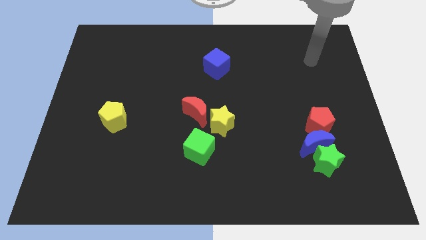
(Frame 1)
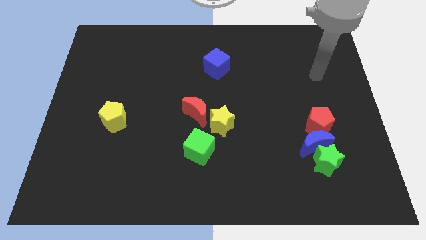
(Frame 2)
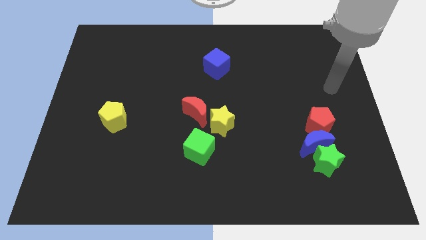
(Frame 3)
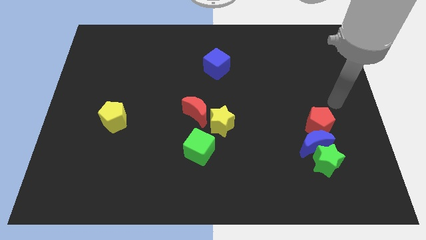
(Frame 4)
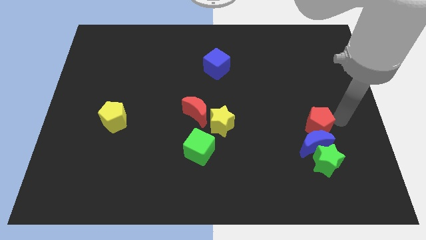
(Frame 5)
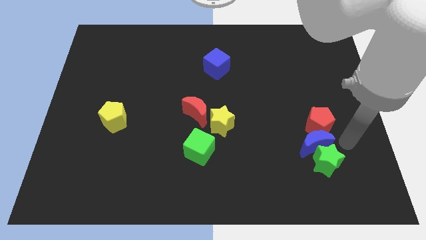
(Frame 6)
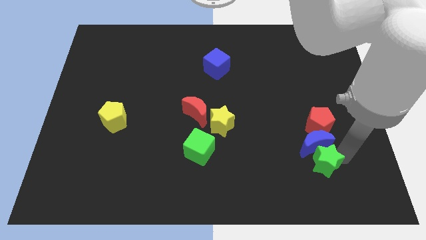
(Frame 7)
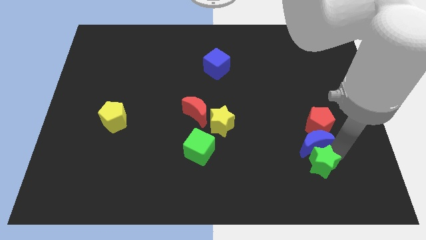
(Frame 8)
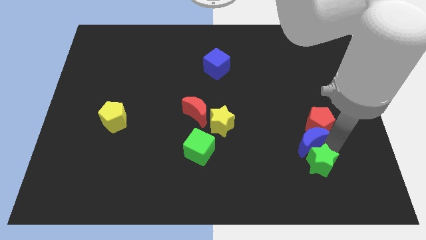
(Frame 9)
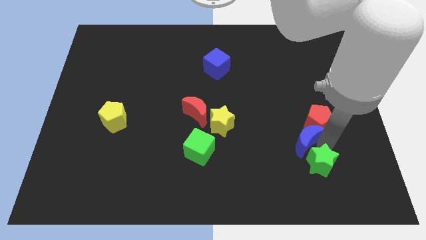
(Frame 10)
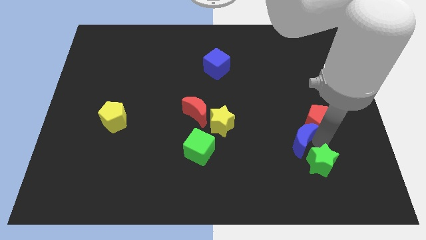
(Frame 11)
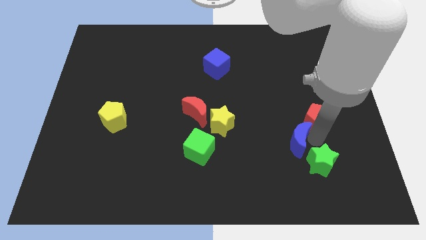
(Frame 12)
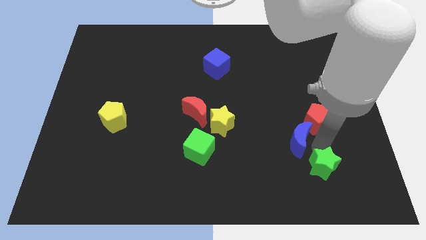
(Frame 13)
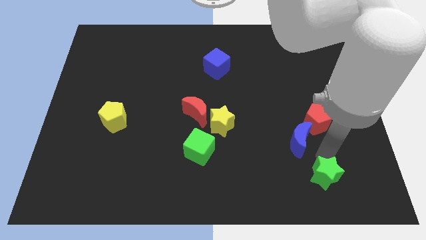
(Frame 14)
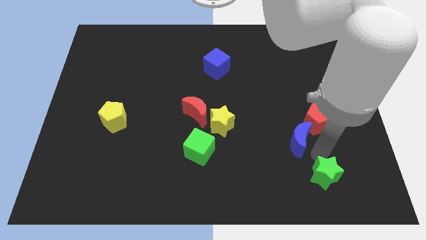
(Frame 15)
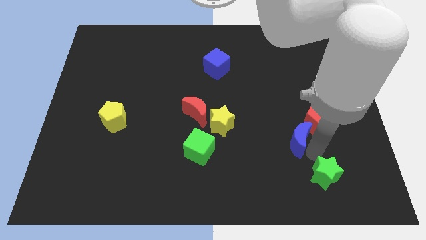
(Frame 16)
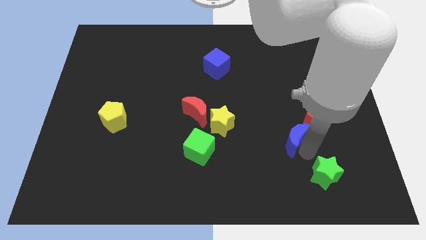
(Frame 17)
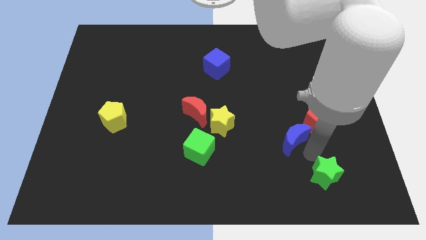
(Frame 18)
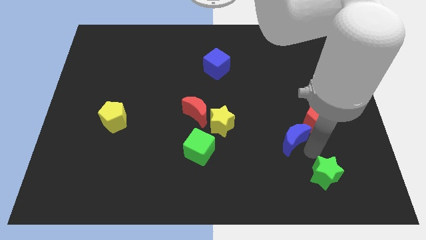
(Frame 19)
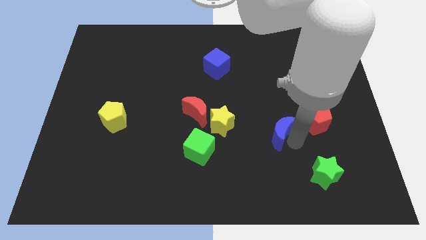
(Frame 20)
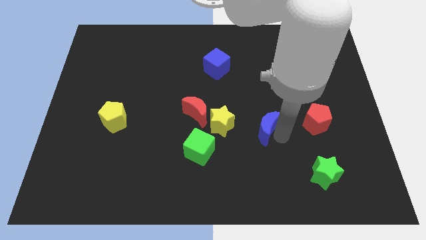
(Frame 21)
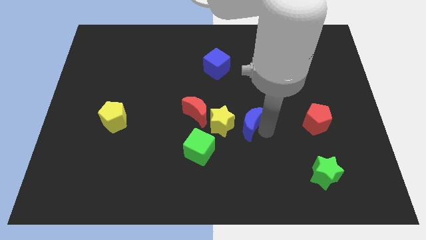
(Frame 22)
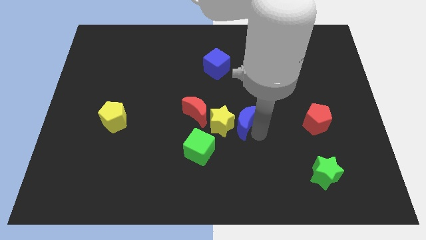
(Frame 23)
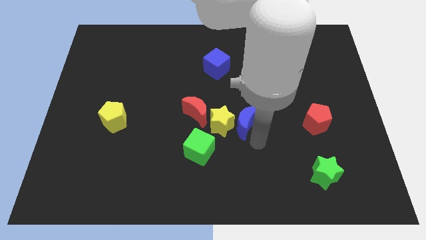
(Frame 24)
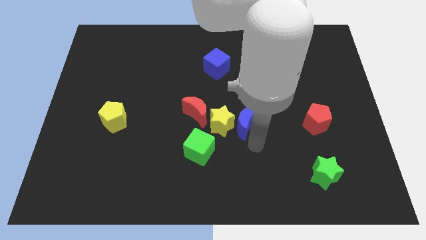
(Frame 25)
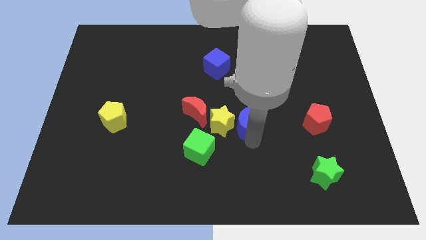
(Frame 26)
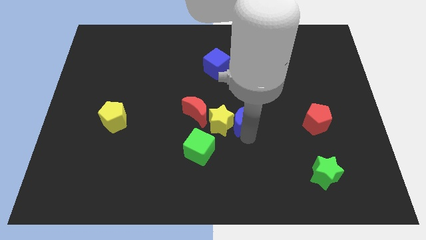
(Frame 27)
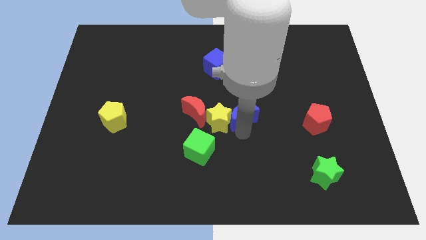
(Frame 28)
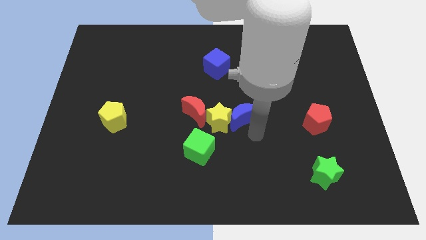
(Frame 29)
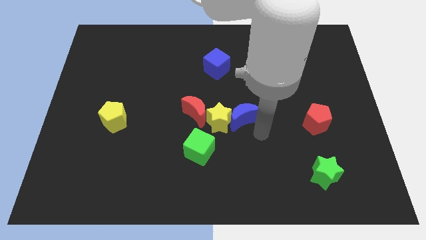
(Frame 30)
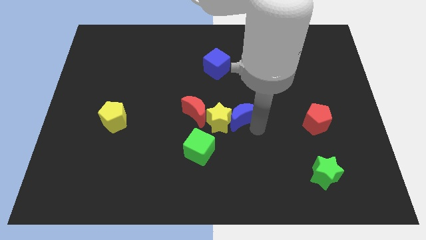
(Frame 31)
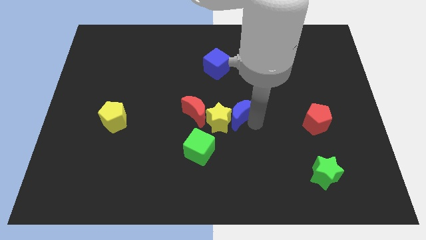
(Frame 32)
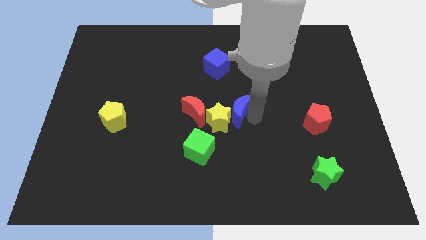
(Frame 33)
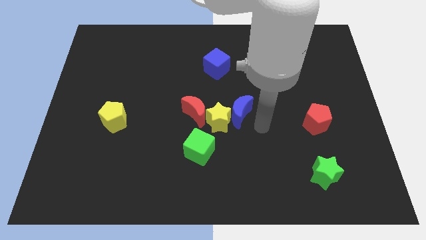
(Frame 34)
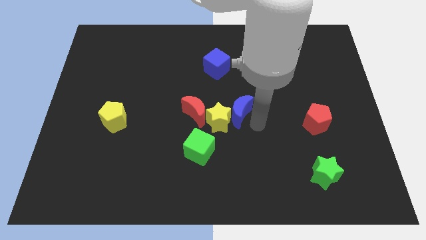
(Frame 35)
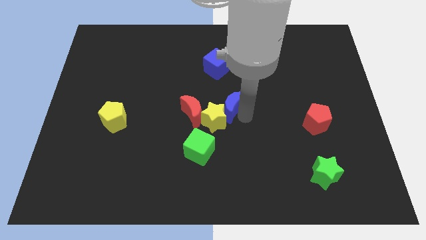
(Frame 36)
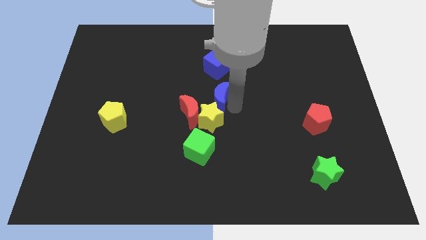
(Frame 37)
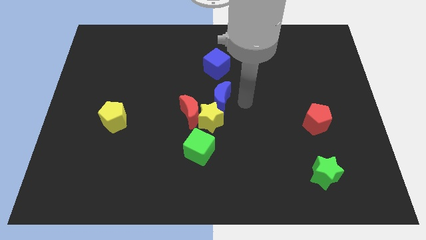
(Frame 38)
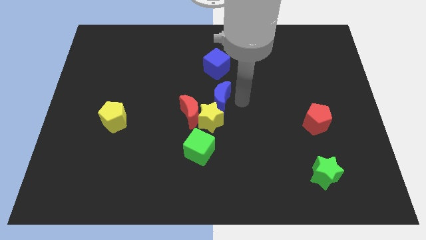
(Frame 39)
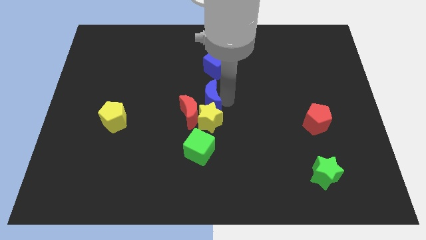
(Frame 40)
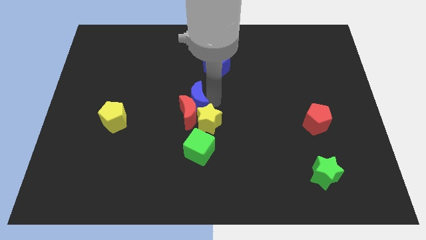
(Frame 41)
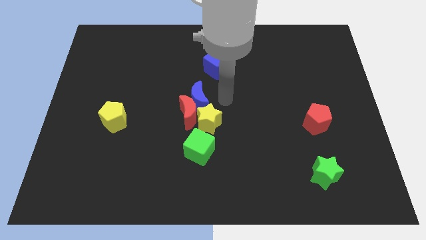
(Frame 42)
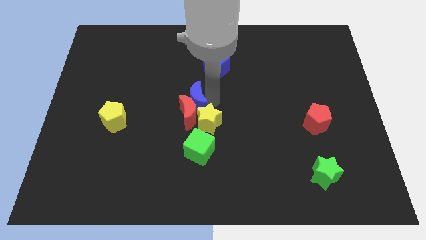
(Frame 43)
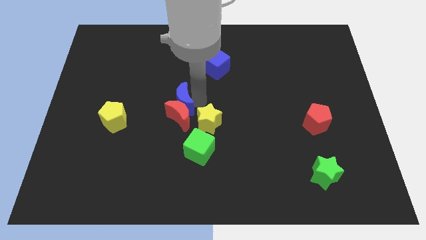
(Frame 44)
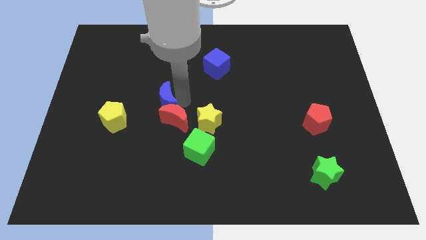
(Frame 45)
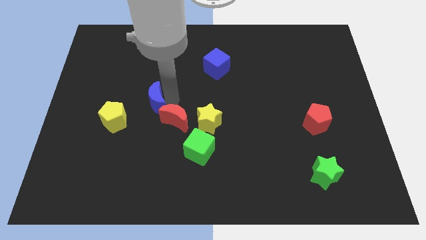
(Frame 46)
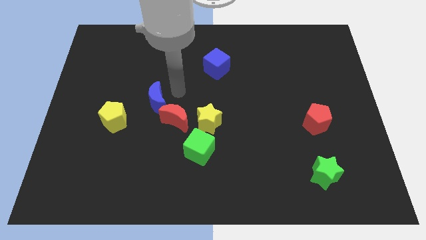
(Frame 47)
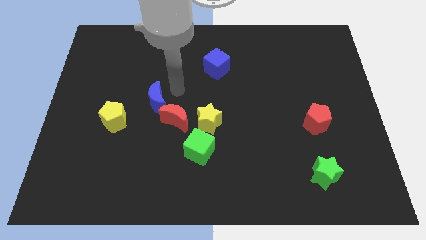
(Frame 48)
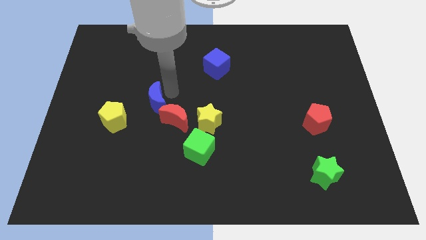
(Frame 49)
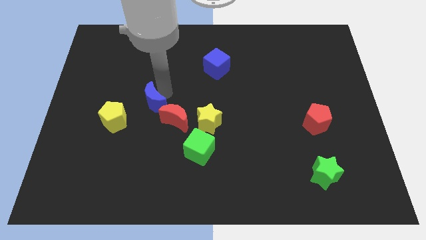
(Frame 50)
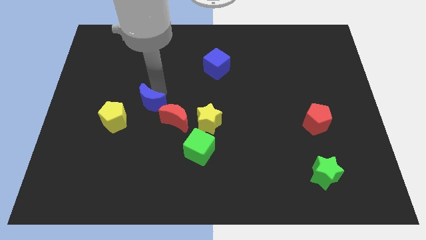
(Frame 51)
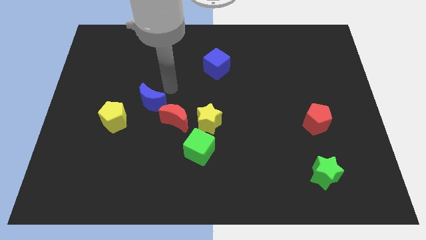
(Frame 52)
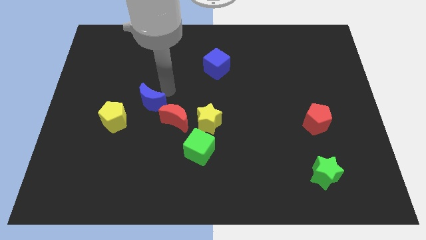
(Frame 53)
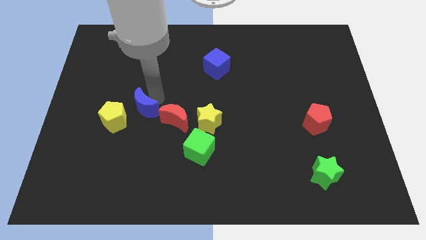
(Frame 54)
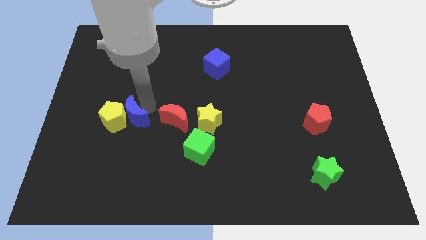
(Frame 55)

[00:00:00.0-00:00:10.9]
slide the blue moon close to the yellow pentagon

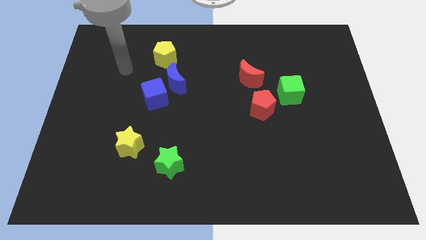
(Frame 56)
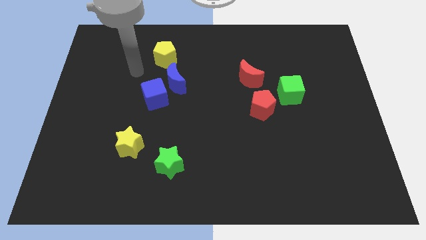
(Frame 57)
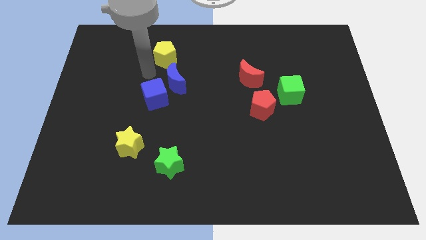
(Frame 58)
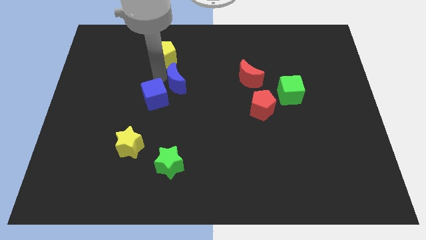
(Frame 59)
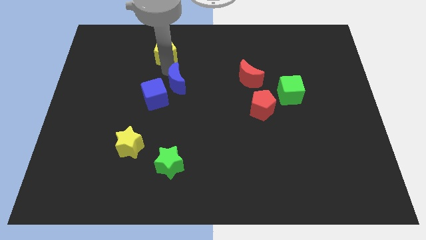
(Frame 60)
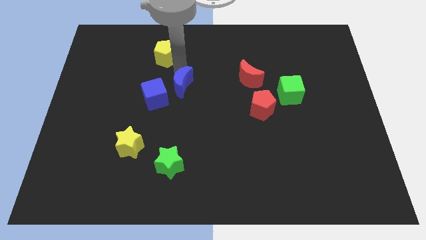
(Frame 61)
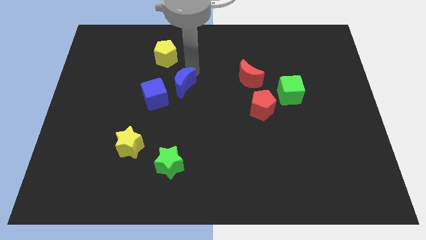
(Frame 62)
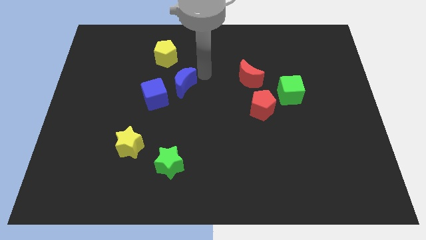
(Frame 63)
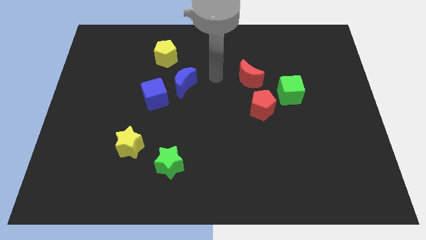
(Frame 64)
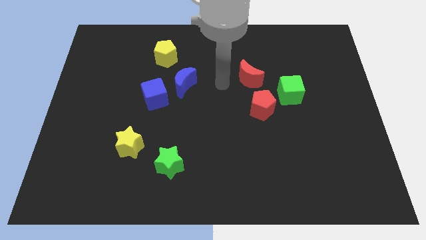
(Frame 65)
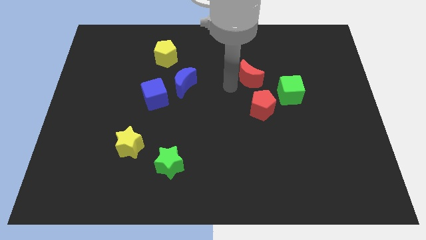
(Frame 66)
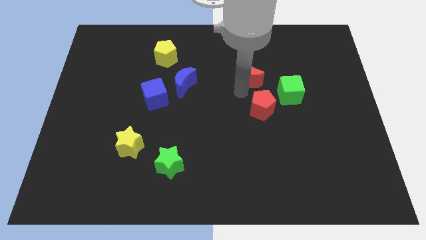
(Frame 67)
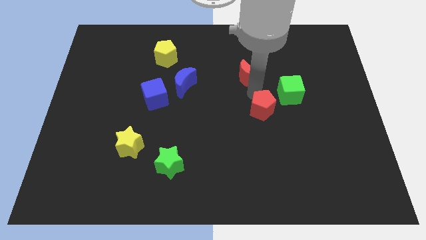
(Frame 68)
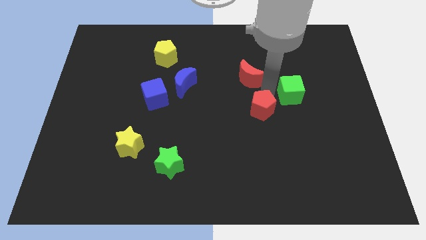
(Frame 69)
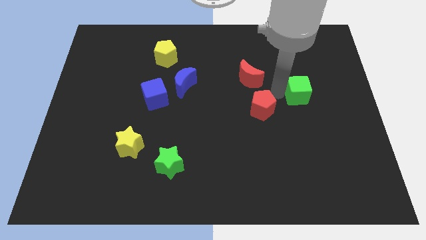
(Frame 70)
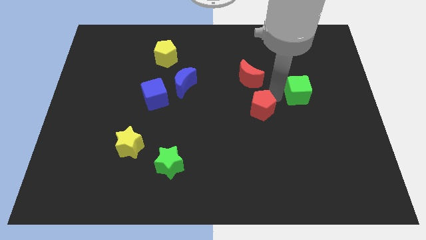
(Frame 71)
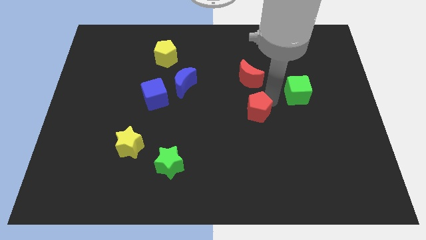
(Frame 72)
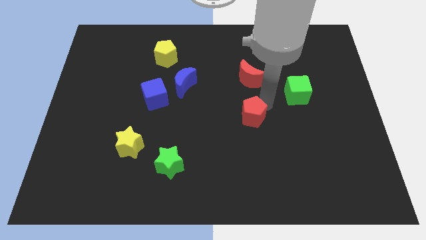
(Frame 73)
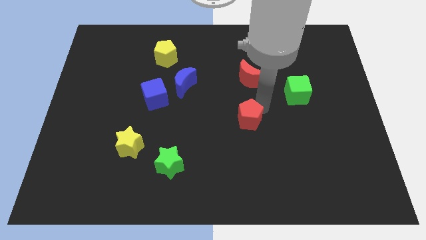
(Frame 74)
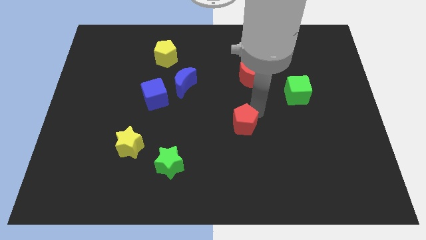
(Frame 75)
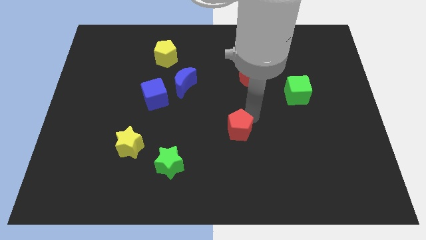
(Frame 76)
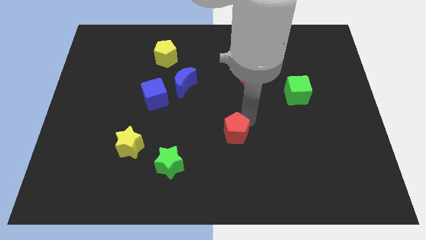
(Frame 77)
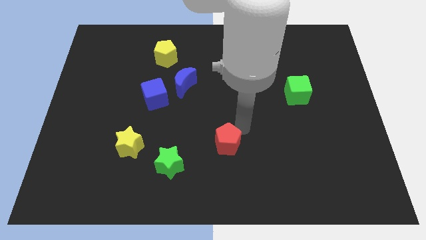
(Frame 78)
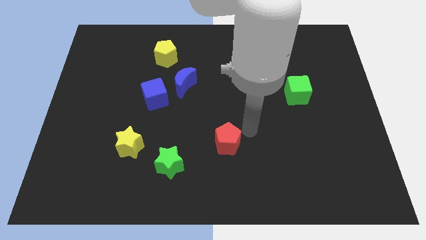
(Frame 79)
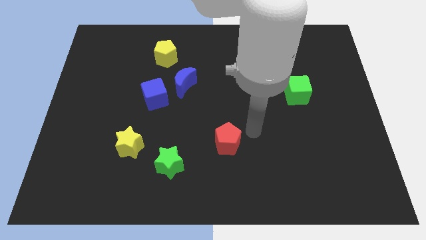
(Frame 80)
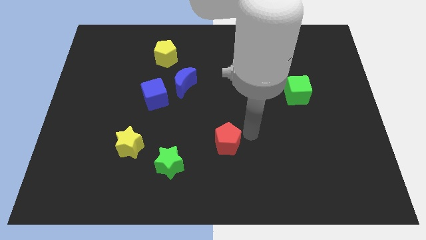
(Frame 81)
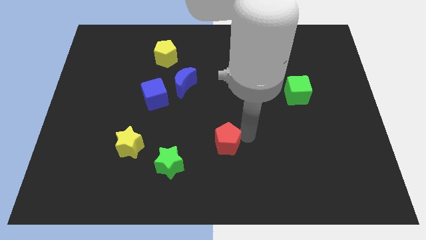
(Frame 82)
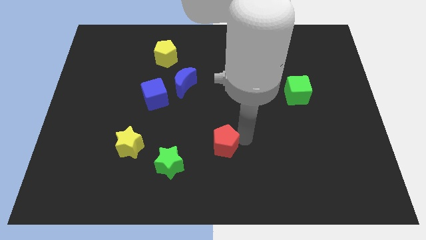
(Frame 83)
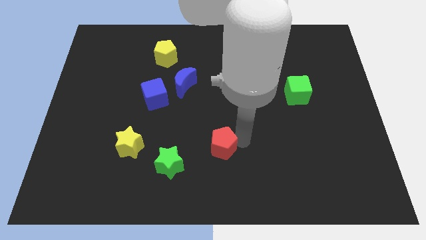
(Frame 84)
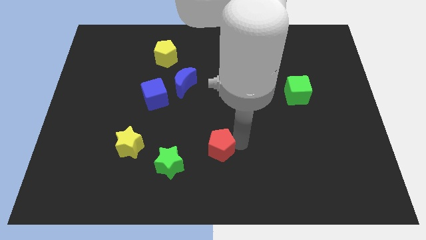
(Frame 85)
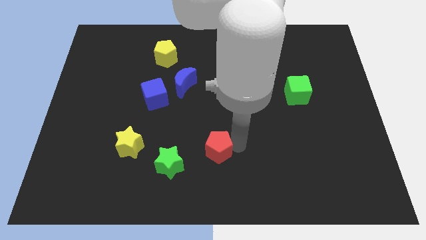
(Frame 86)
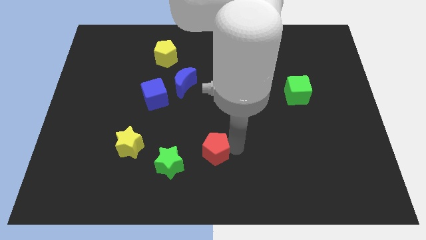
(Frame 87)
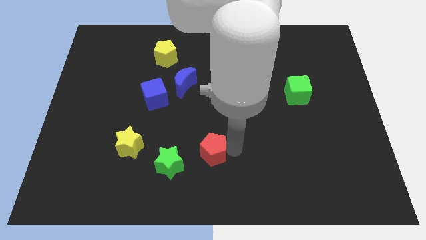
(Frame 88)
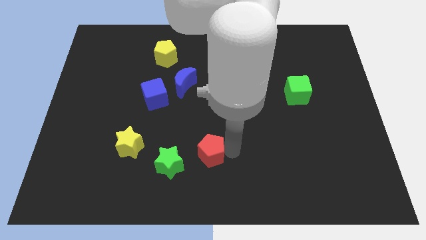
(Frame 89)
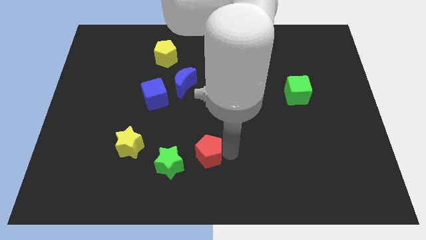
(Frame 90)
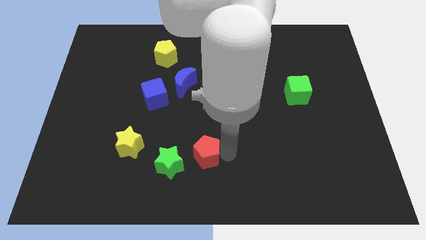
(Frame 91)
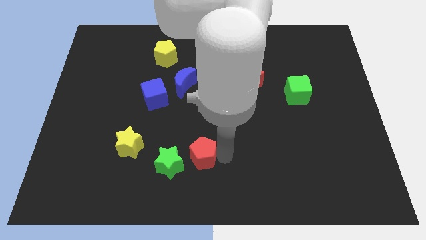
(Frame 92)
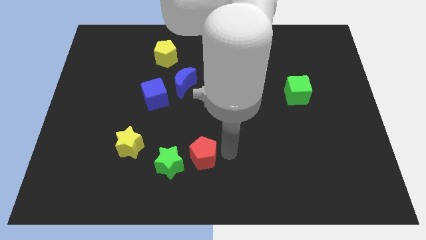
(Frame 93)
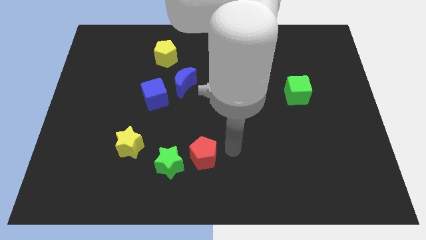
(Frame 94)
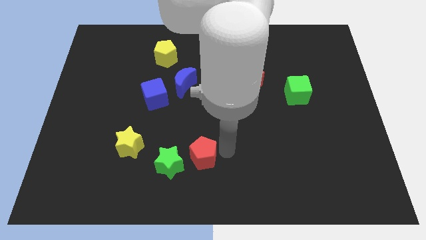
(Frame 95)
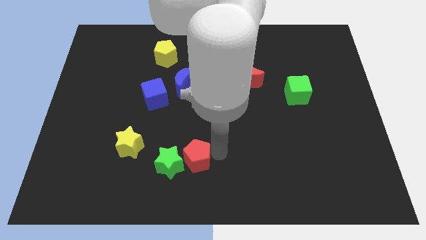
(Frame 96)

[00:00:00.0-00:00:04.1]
slide the red pentagon close to the green star
